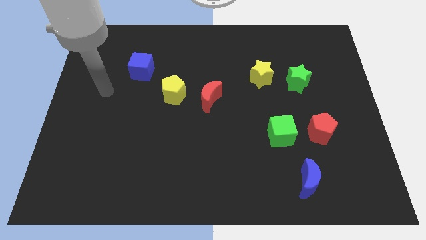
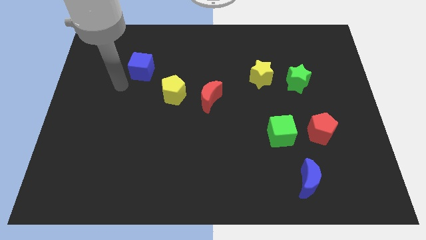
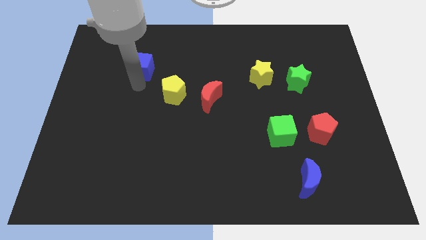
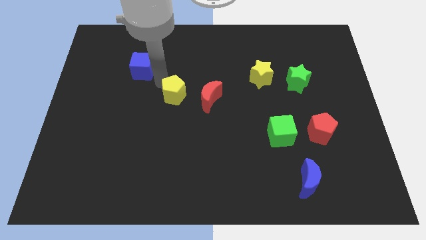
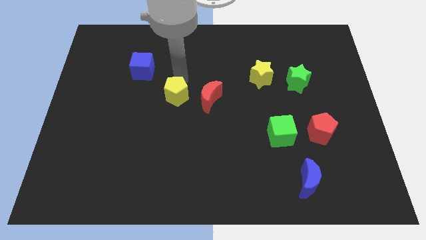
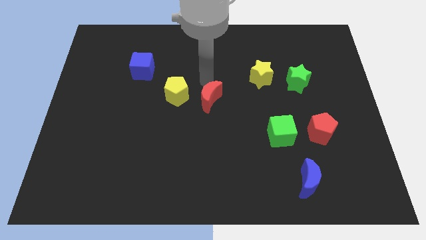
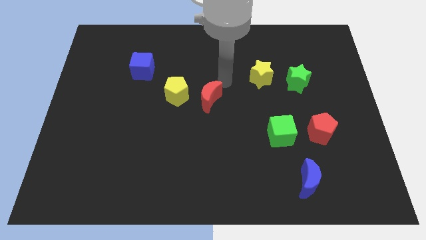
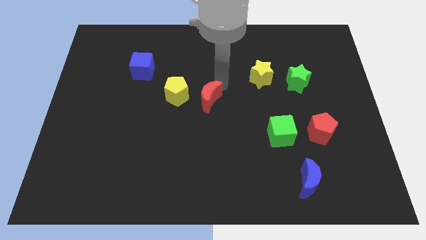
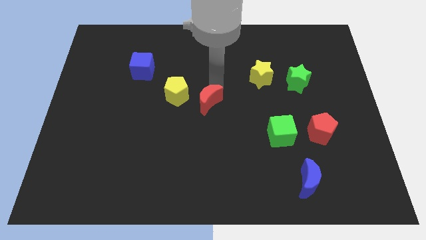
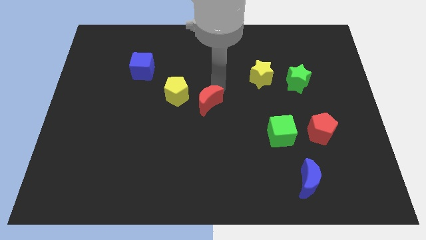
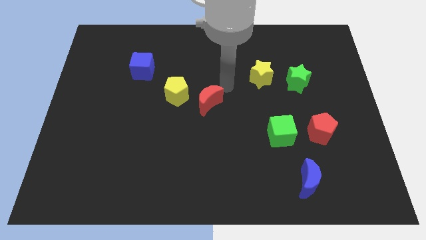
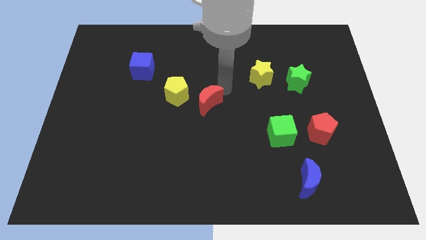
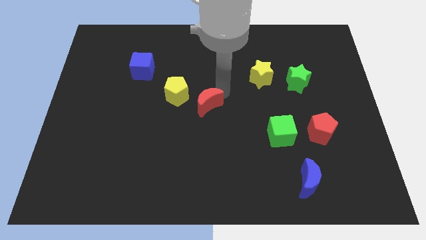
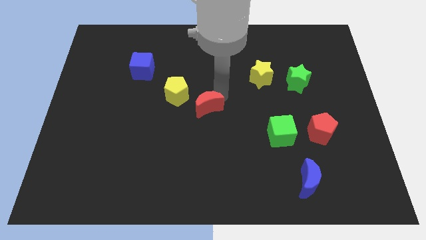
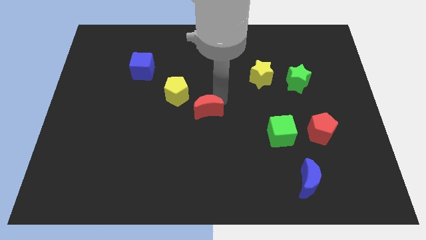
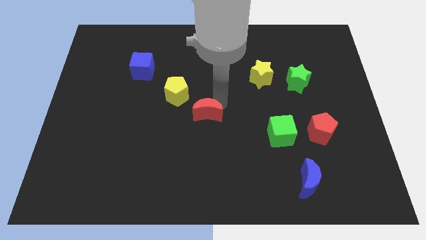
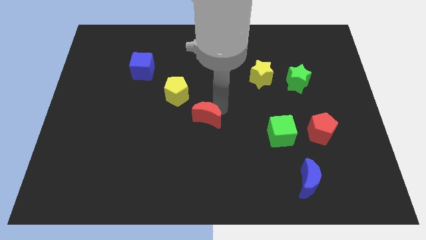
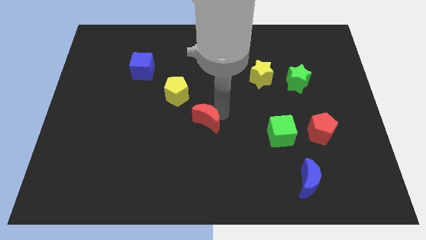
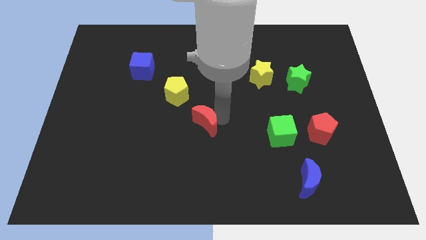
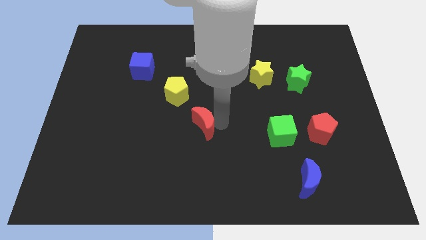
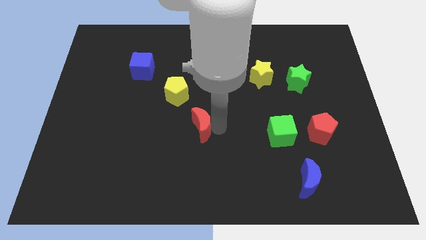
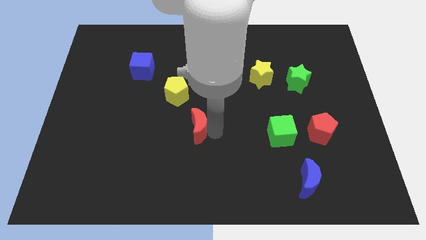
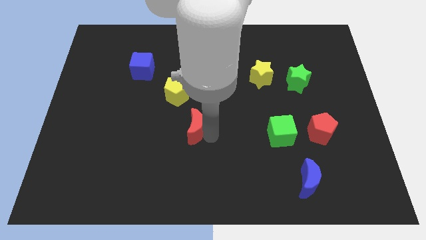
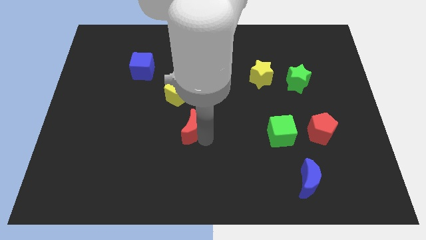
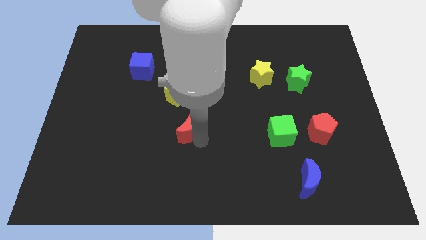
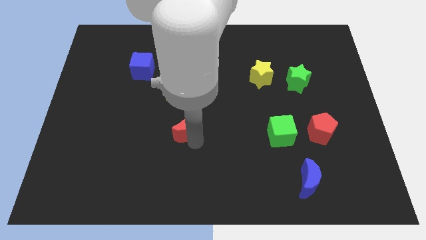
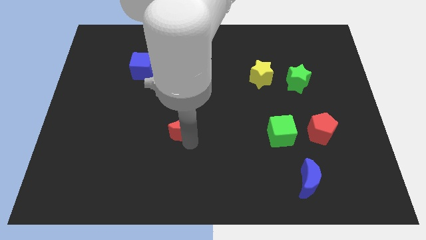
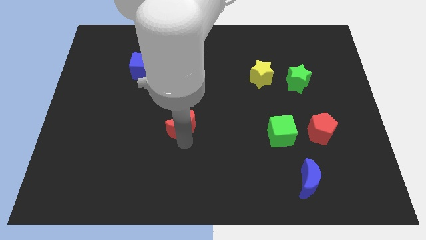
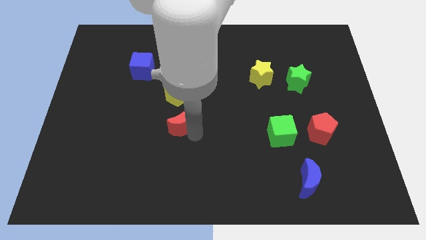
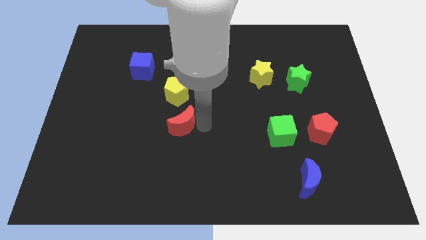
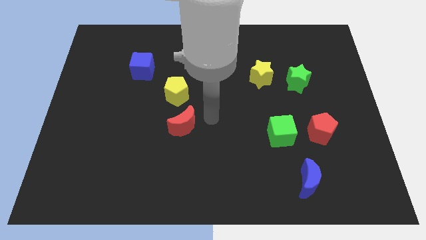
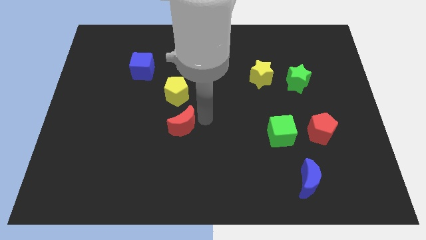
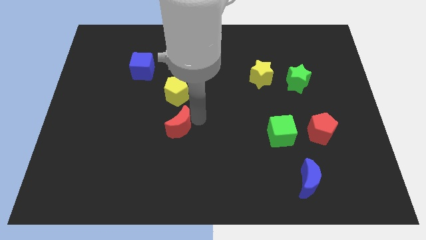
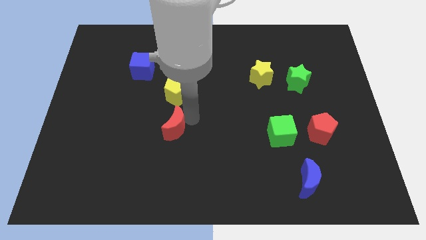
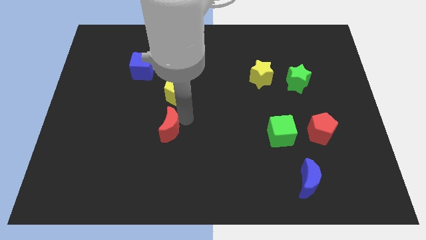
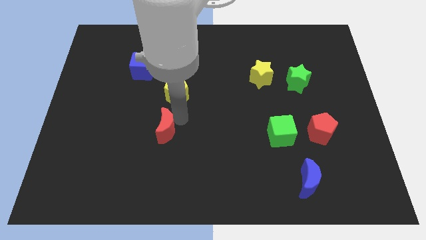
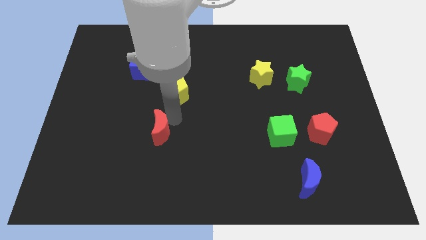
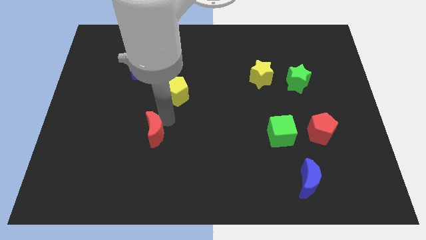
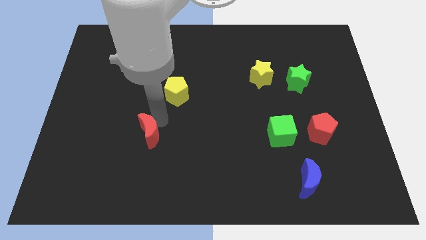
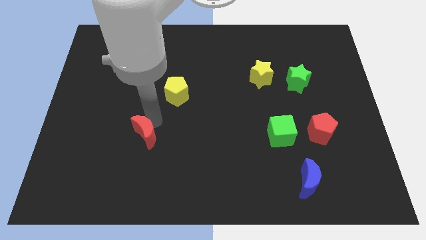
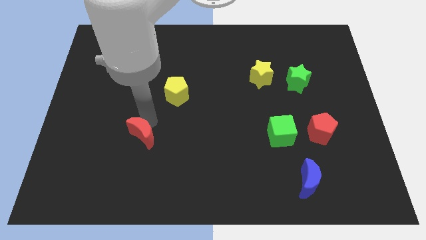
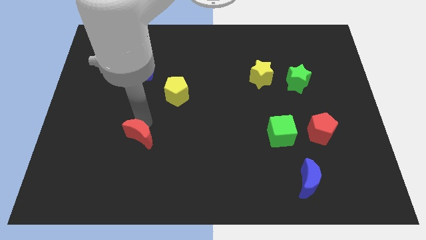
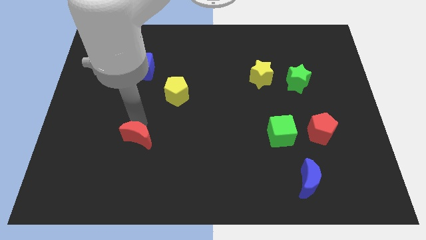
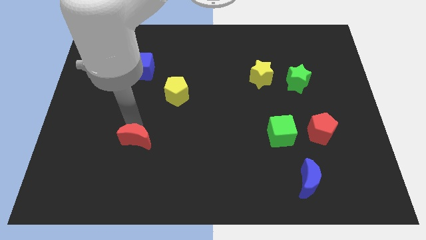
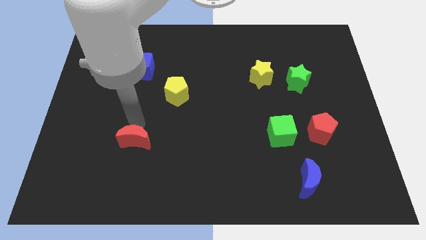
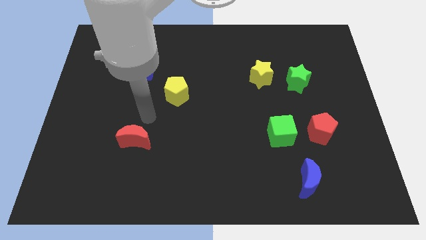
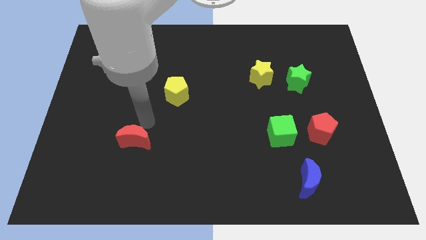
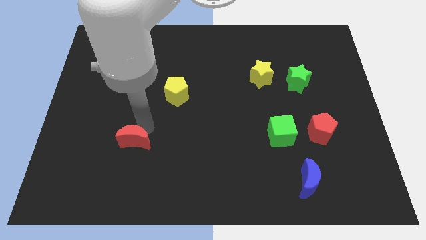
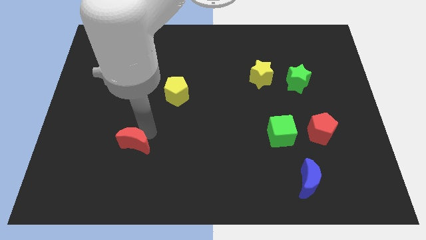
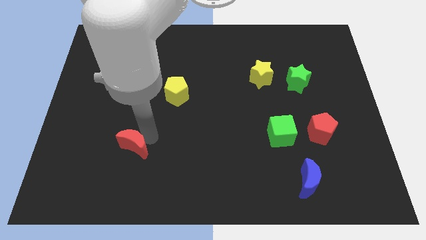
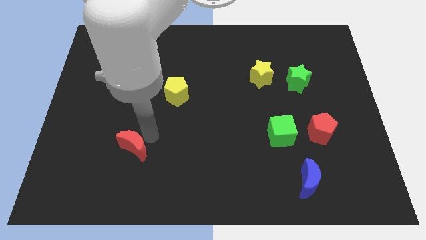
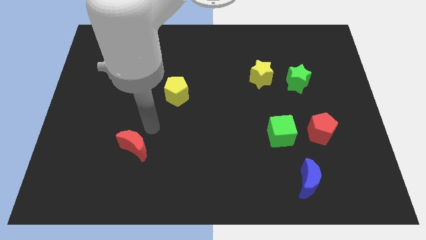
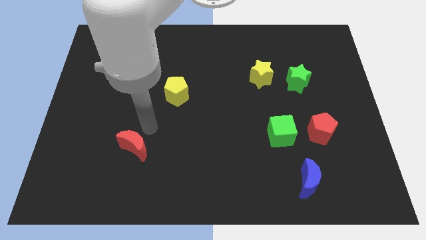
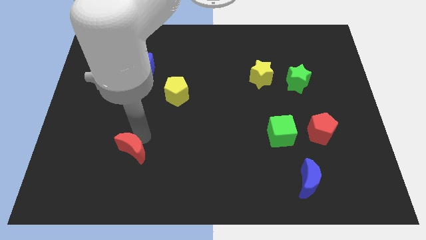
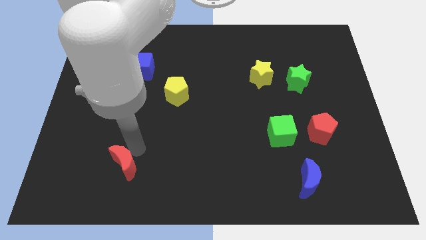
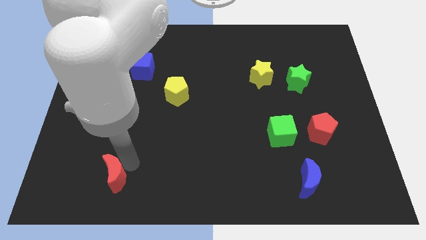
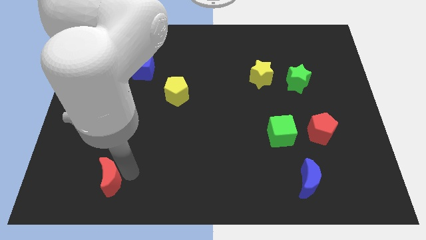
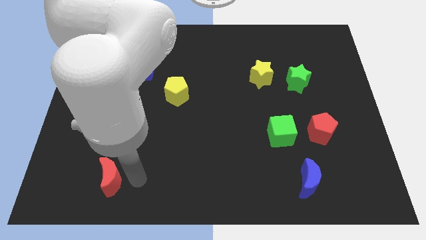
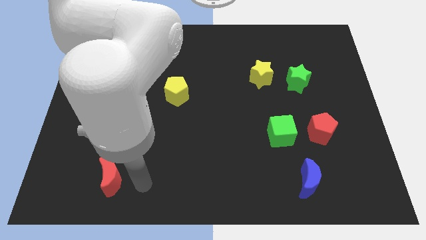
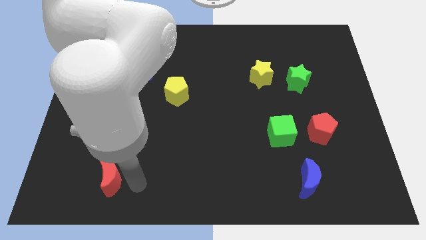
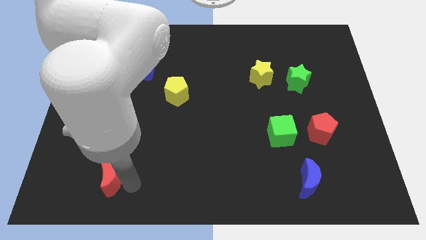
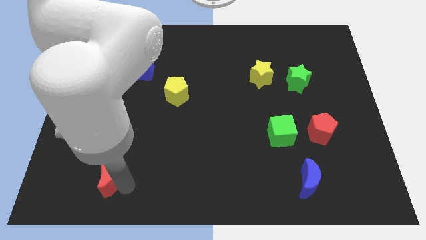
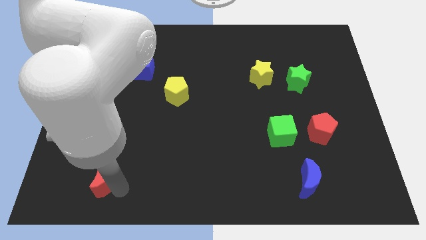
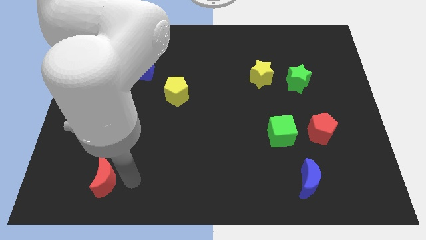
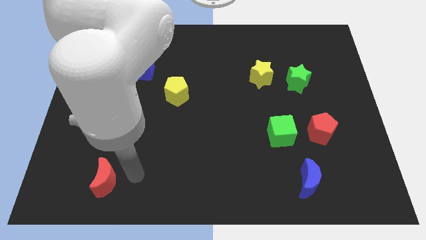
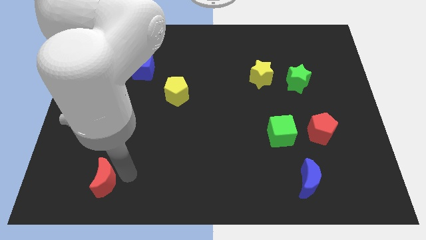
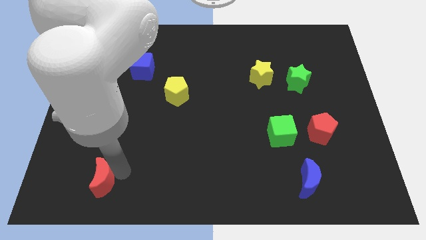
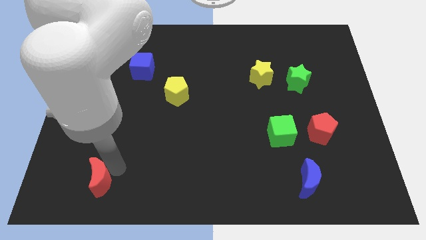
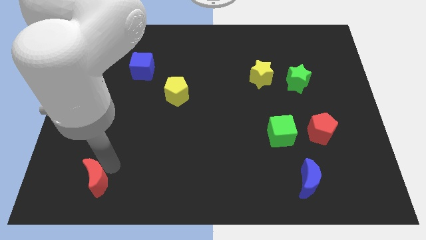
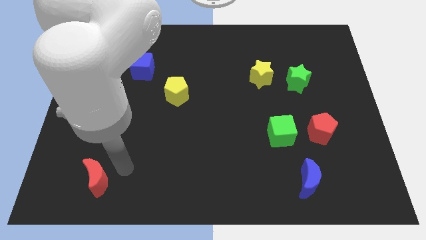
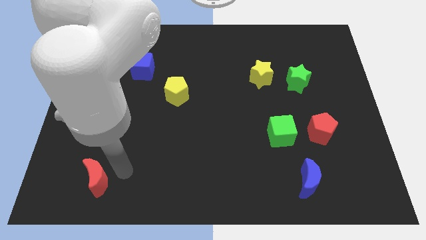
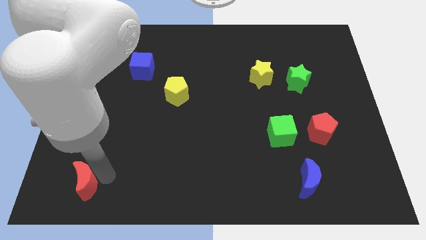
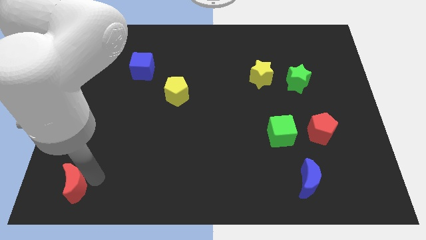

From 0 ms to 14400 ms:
move the red moon to the lower left corner
